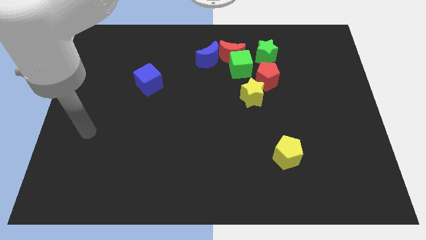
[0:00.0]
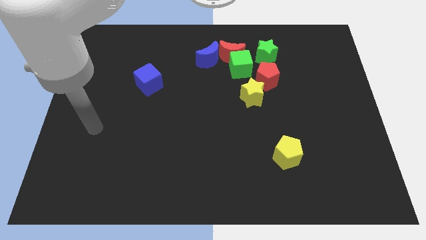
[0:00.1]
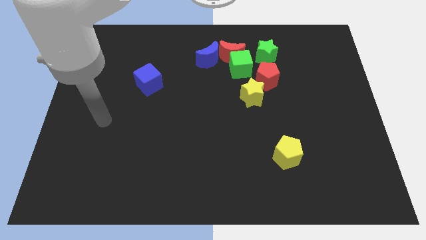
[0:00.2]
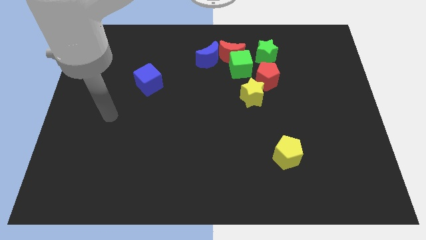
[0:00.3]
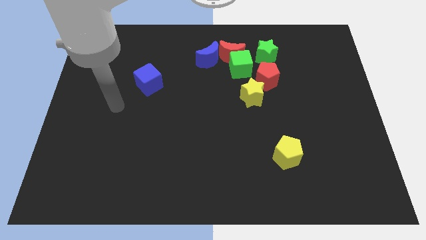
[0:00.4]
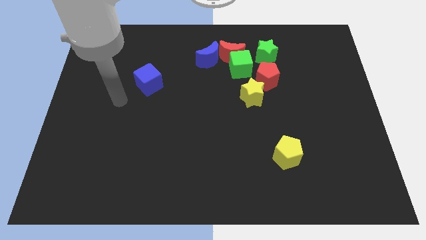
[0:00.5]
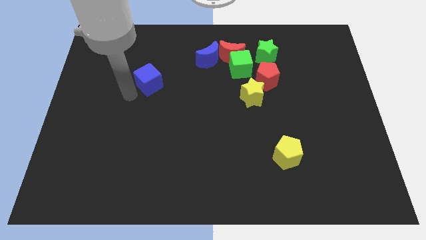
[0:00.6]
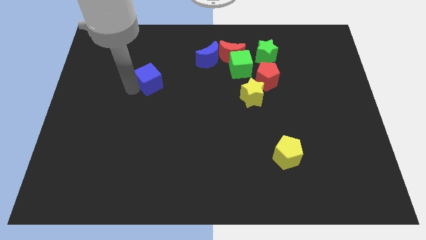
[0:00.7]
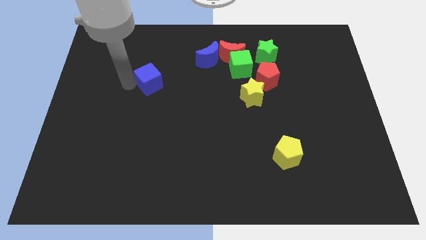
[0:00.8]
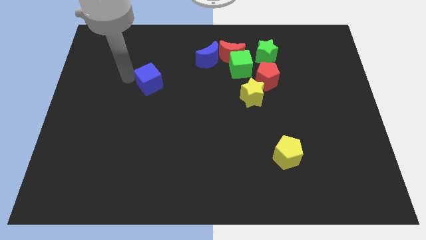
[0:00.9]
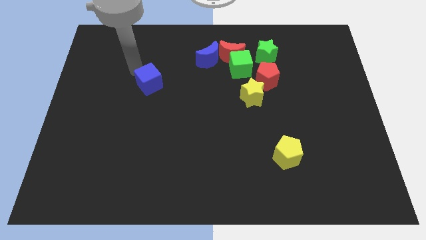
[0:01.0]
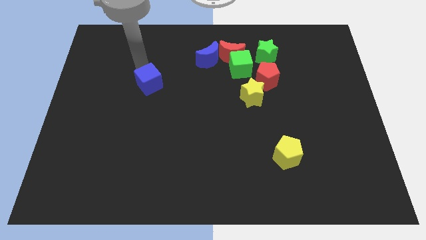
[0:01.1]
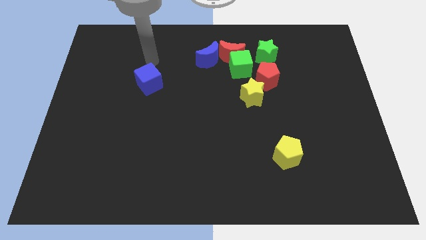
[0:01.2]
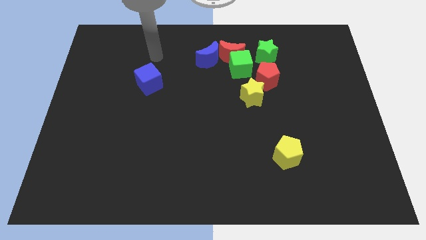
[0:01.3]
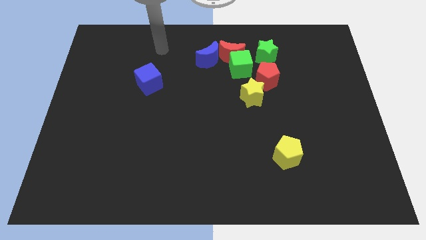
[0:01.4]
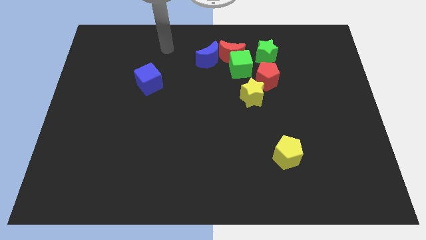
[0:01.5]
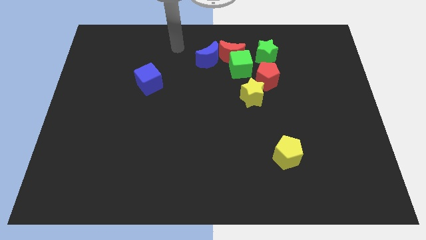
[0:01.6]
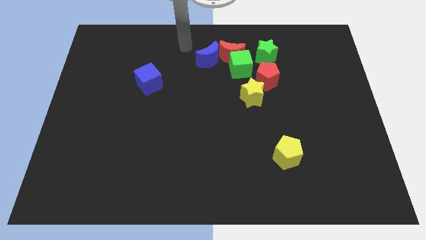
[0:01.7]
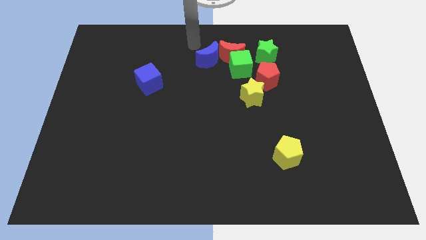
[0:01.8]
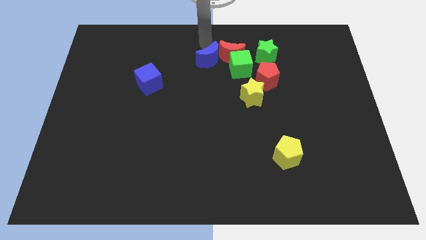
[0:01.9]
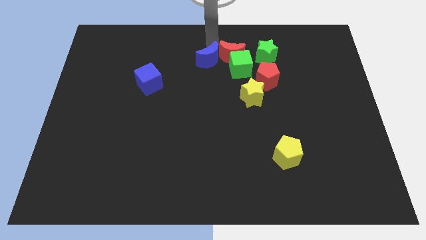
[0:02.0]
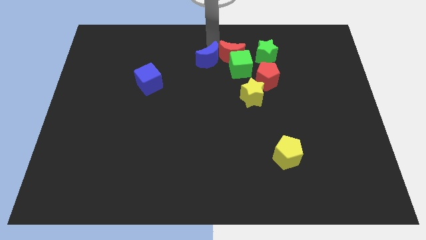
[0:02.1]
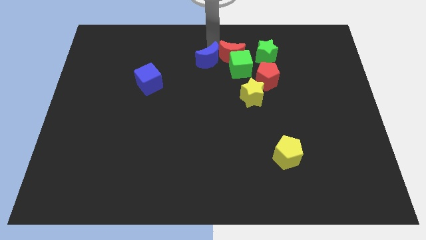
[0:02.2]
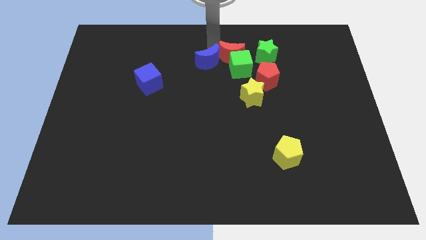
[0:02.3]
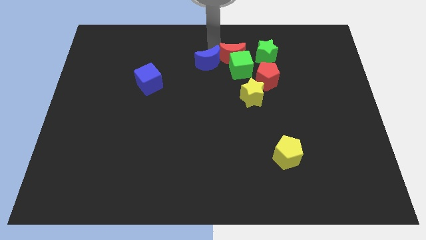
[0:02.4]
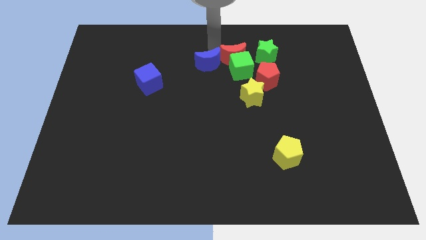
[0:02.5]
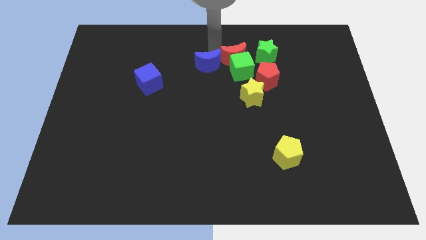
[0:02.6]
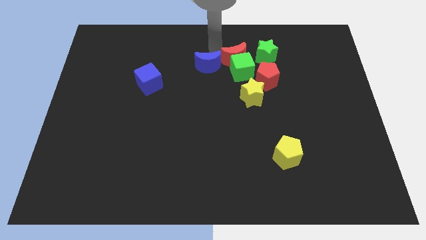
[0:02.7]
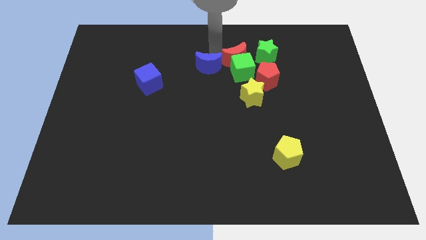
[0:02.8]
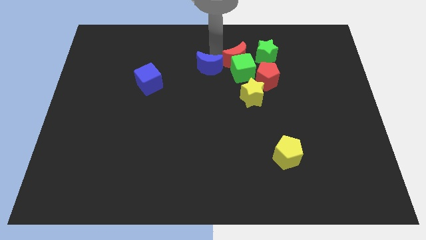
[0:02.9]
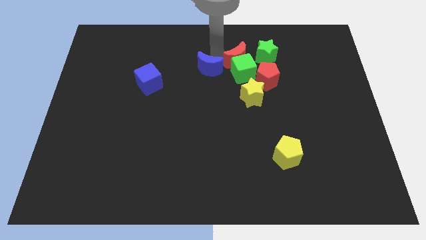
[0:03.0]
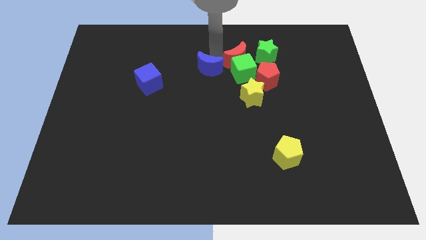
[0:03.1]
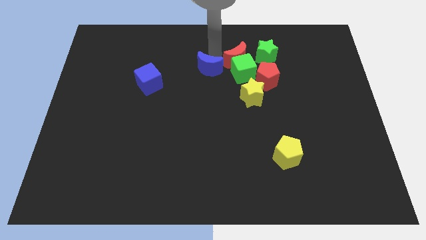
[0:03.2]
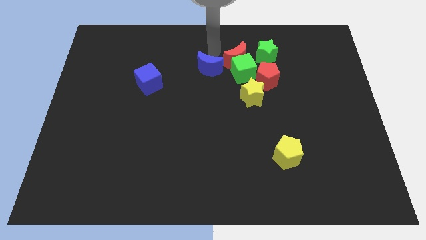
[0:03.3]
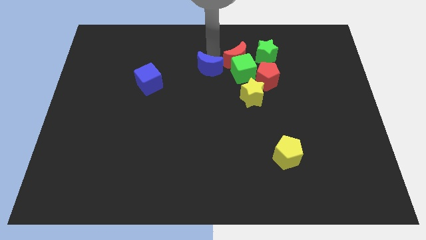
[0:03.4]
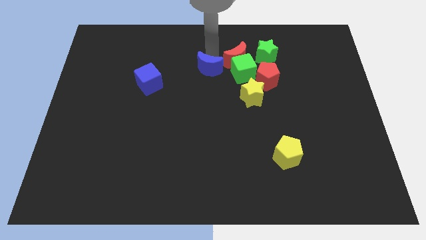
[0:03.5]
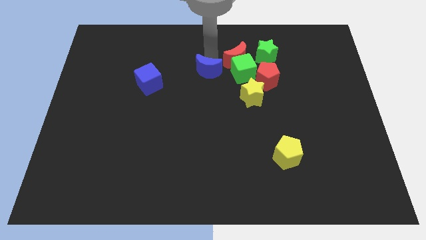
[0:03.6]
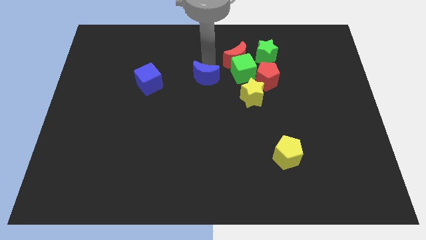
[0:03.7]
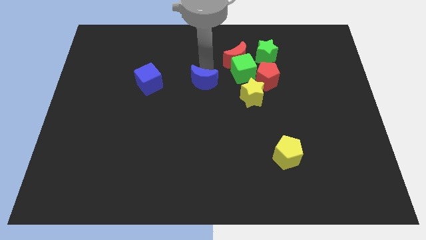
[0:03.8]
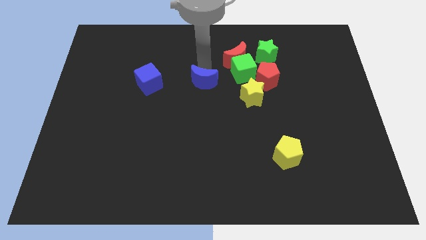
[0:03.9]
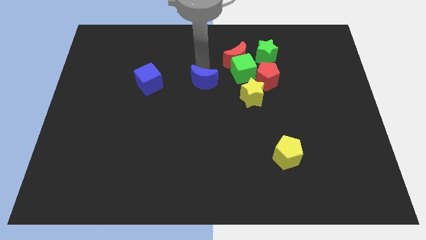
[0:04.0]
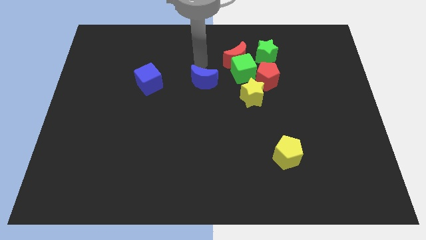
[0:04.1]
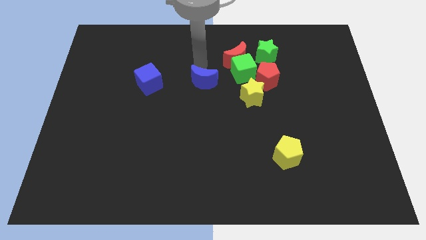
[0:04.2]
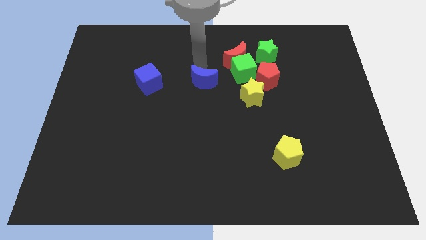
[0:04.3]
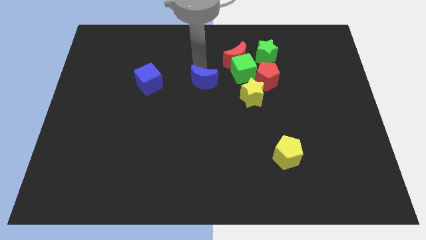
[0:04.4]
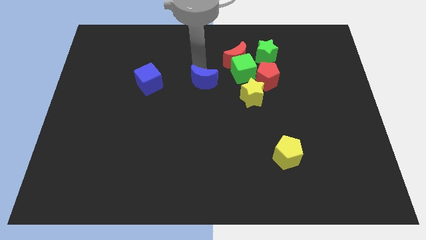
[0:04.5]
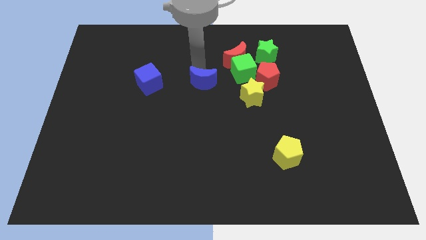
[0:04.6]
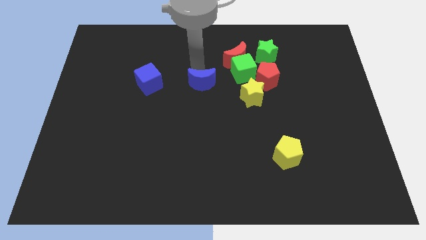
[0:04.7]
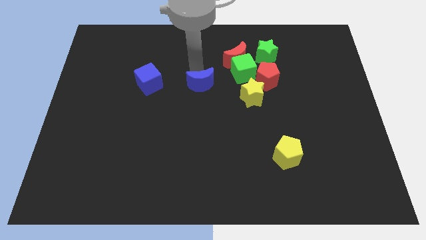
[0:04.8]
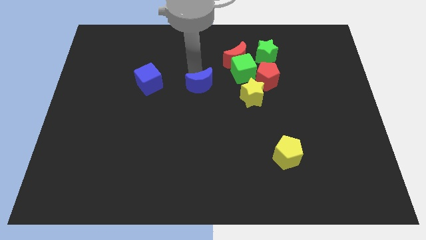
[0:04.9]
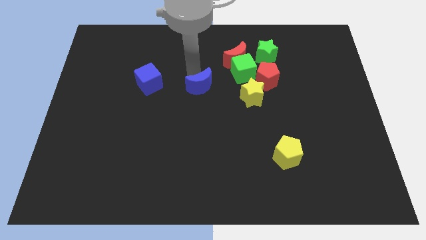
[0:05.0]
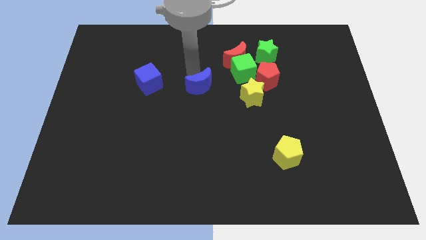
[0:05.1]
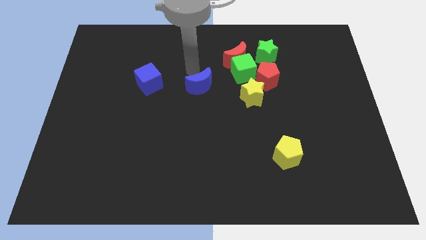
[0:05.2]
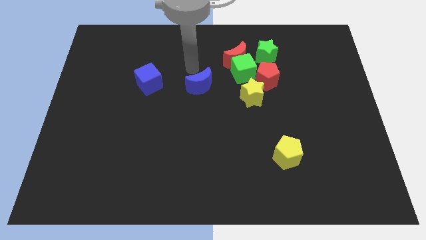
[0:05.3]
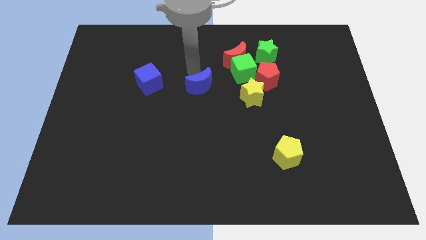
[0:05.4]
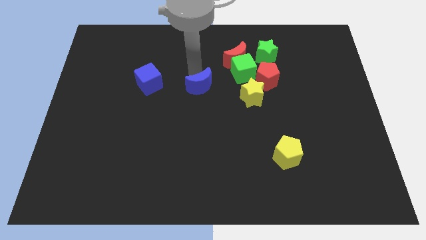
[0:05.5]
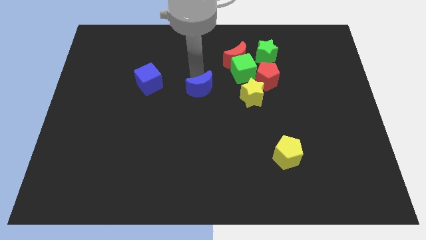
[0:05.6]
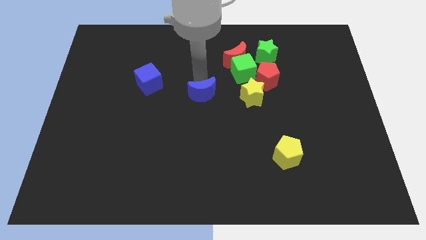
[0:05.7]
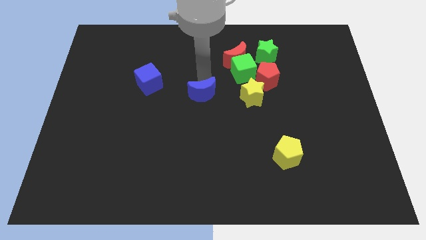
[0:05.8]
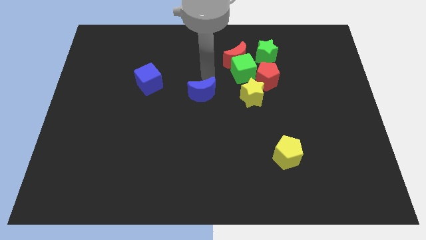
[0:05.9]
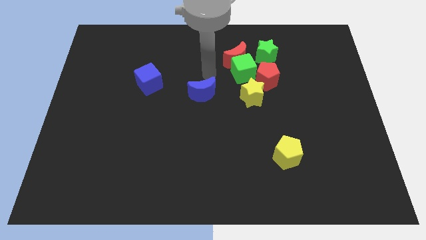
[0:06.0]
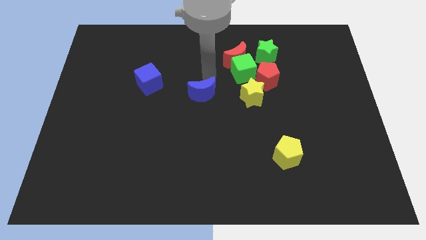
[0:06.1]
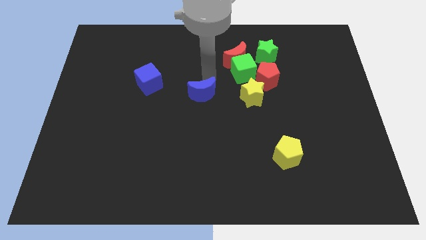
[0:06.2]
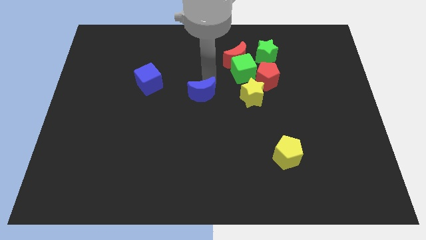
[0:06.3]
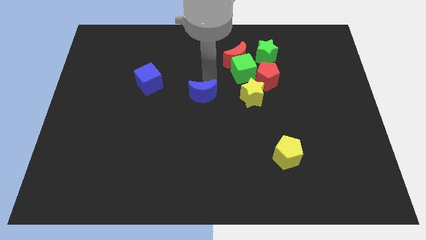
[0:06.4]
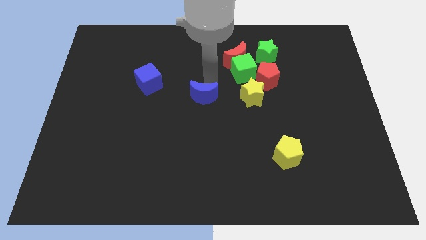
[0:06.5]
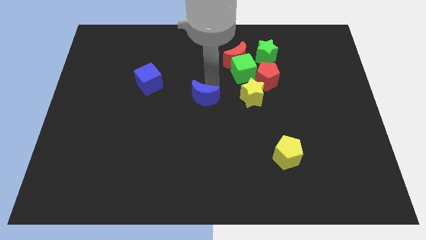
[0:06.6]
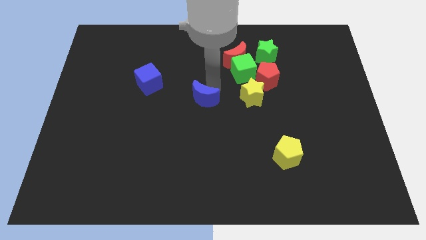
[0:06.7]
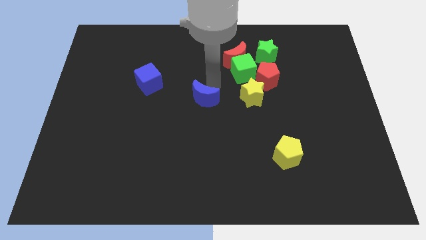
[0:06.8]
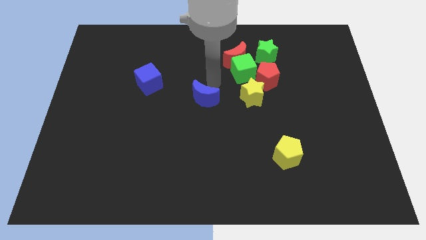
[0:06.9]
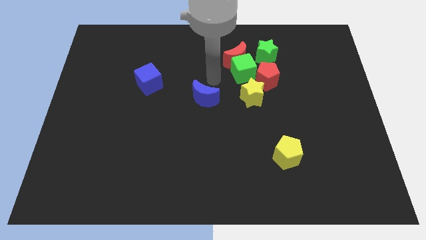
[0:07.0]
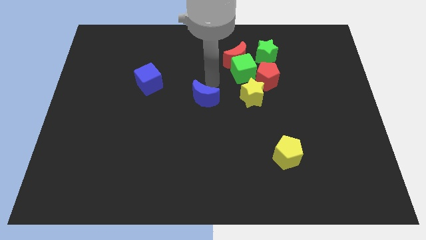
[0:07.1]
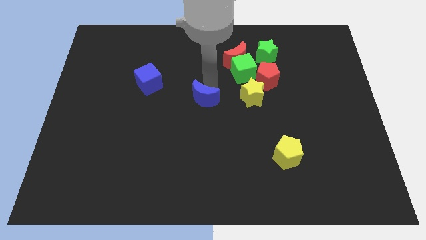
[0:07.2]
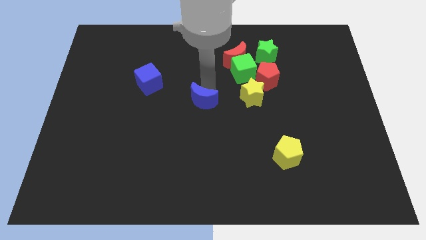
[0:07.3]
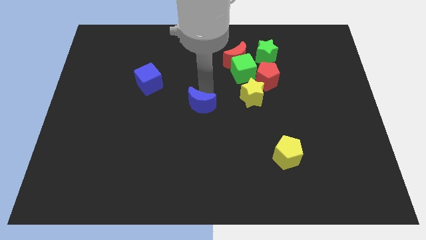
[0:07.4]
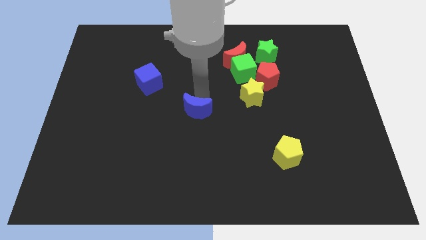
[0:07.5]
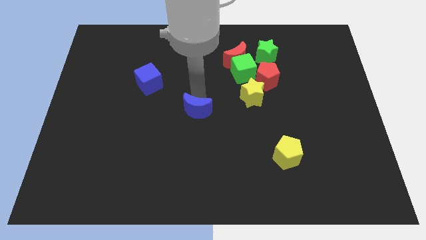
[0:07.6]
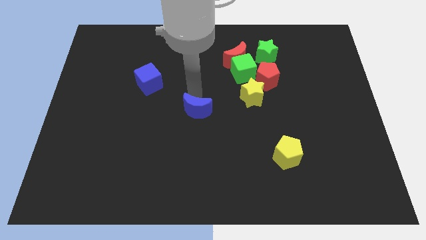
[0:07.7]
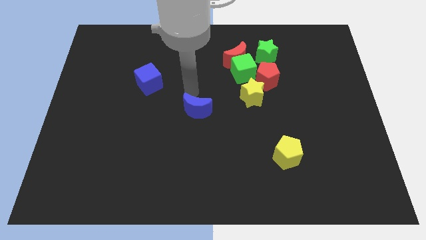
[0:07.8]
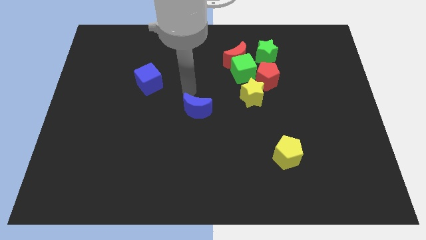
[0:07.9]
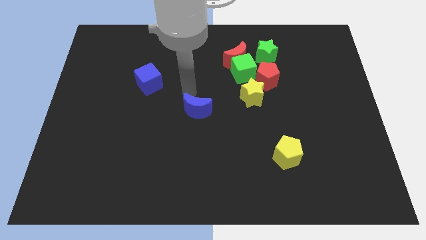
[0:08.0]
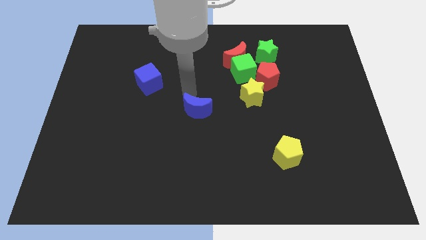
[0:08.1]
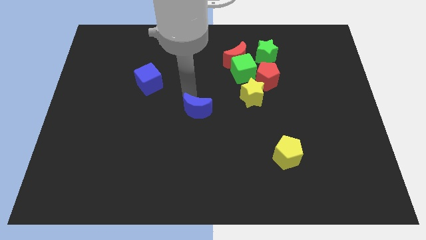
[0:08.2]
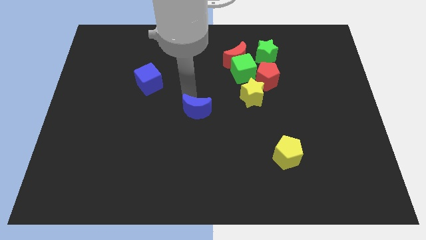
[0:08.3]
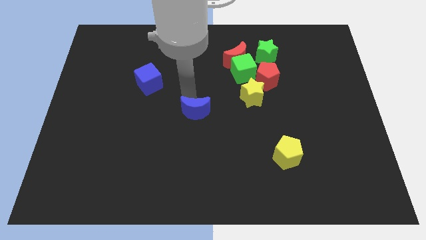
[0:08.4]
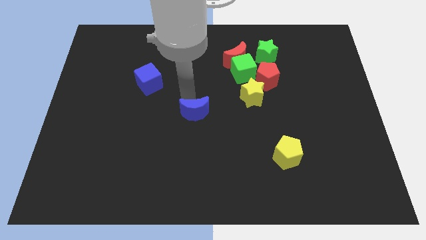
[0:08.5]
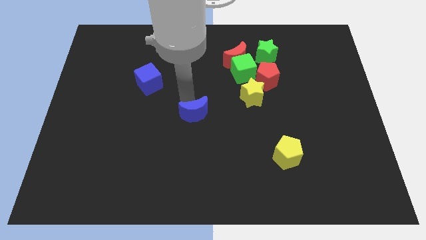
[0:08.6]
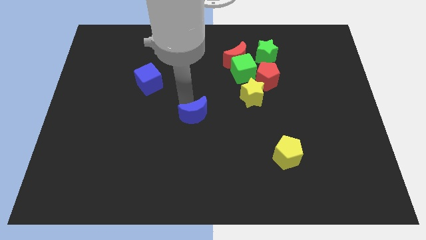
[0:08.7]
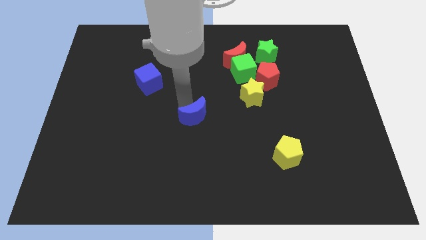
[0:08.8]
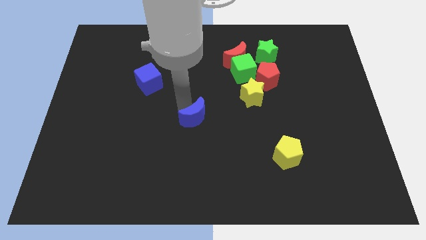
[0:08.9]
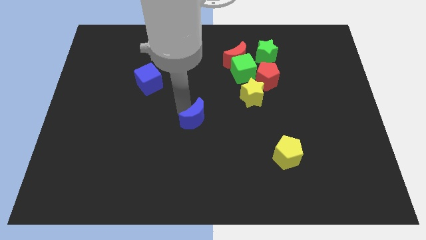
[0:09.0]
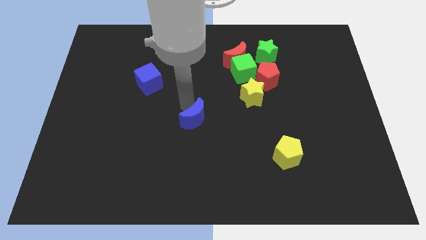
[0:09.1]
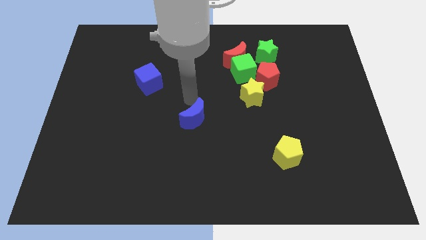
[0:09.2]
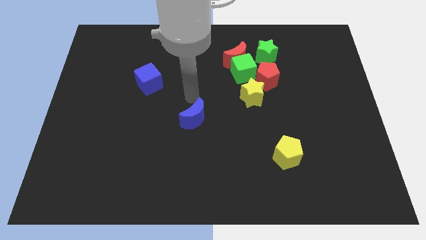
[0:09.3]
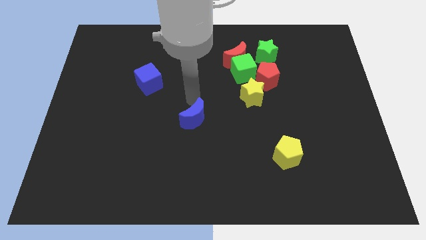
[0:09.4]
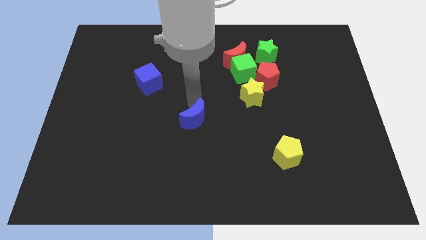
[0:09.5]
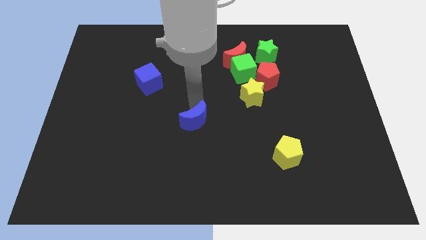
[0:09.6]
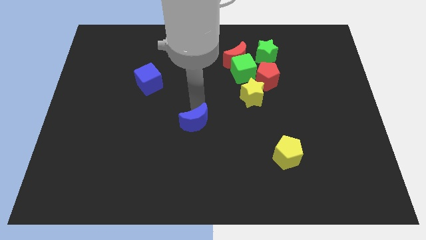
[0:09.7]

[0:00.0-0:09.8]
slide the blue moon downwards
